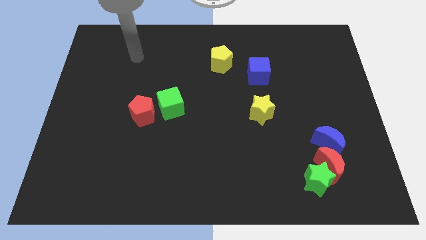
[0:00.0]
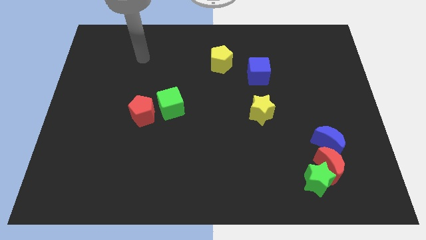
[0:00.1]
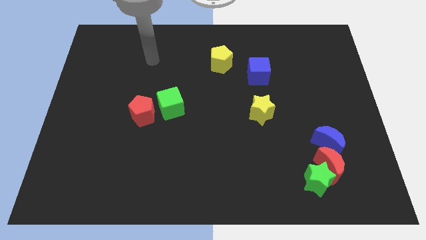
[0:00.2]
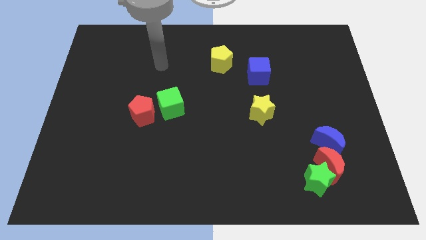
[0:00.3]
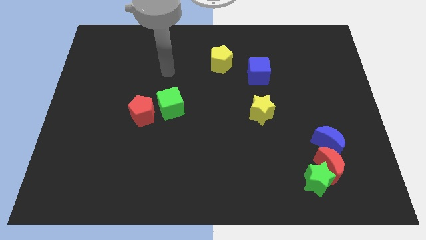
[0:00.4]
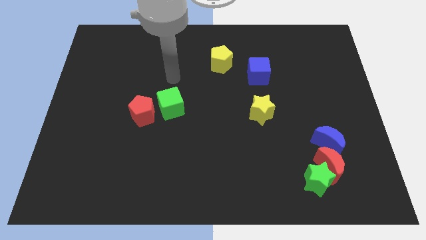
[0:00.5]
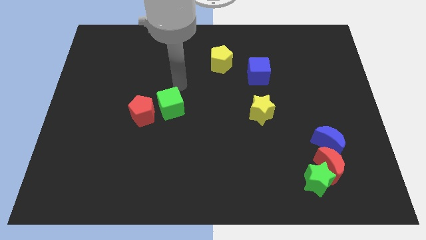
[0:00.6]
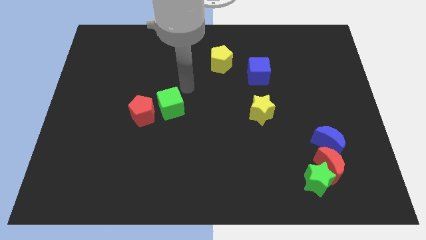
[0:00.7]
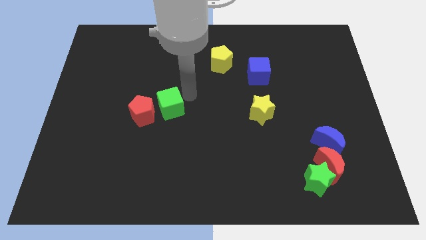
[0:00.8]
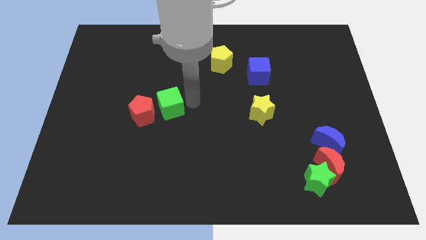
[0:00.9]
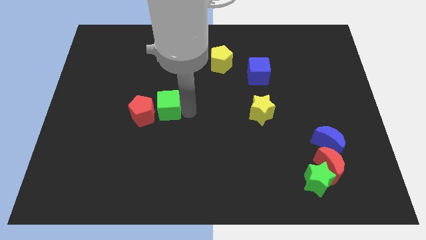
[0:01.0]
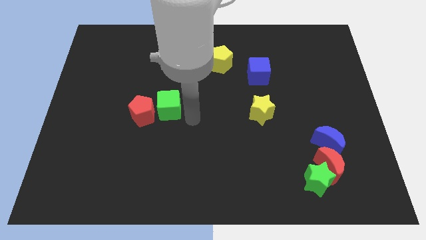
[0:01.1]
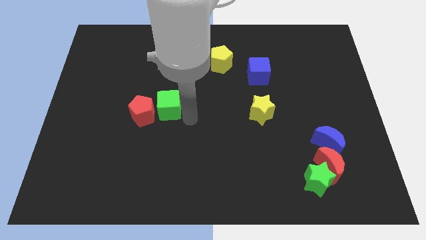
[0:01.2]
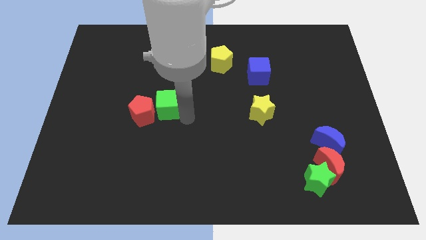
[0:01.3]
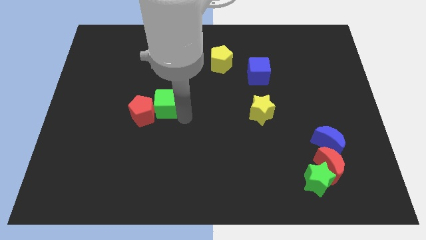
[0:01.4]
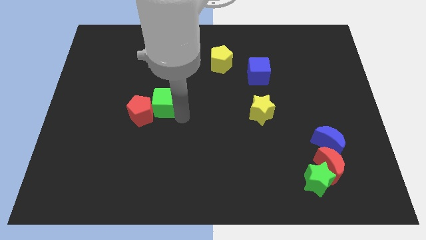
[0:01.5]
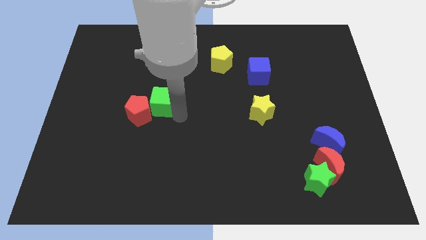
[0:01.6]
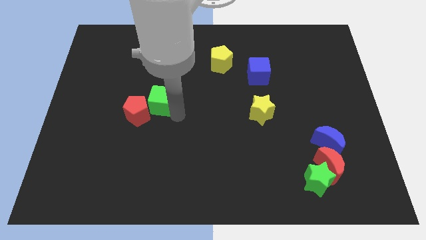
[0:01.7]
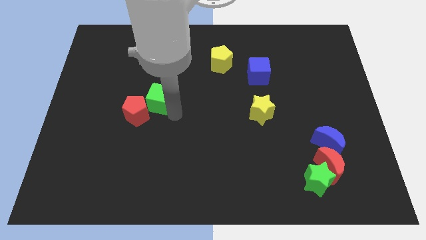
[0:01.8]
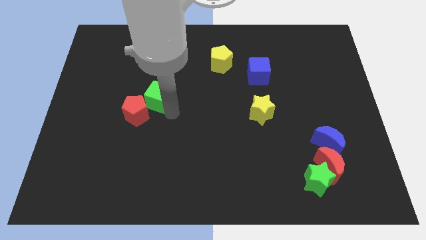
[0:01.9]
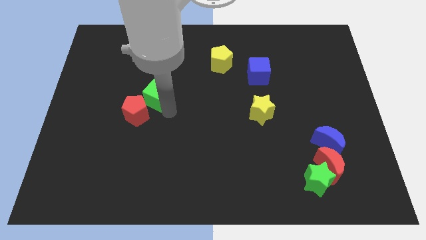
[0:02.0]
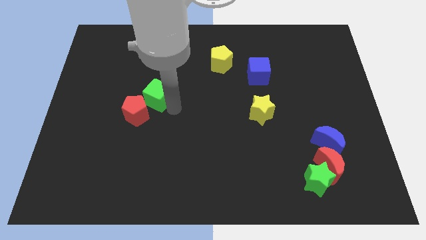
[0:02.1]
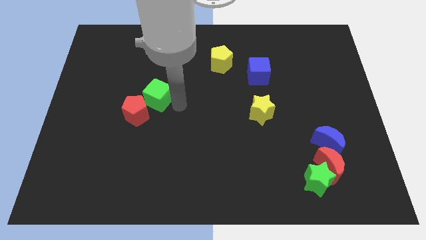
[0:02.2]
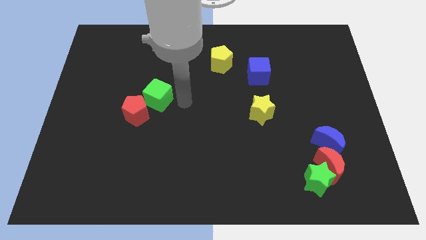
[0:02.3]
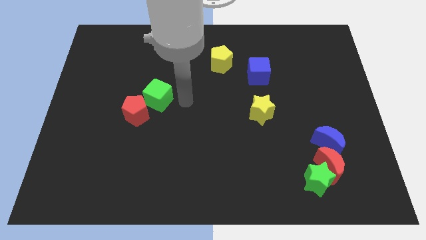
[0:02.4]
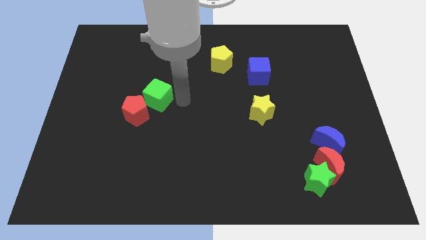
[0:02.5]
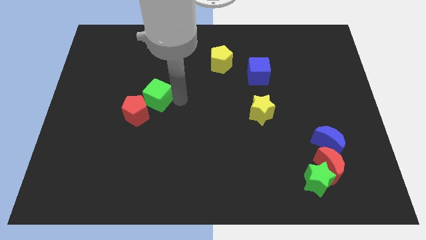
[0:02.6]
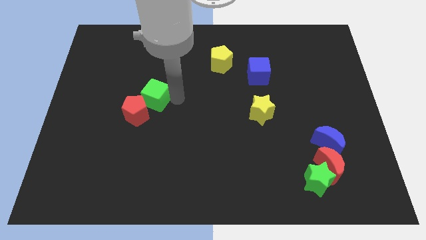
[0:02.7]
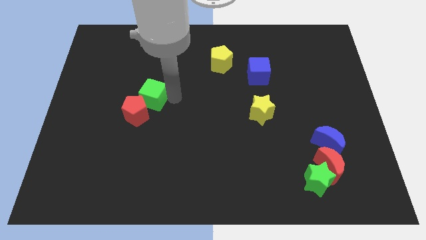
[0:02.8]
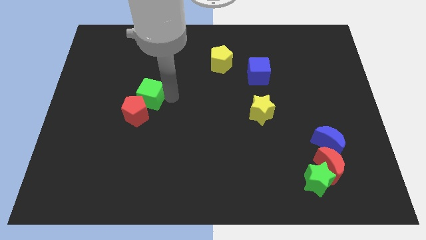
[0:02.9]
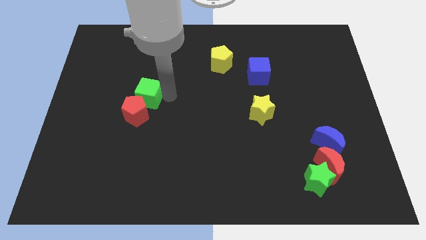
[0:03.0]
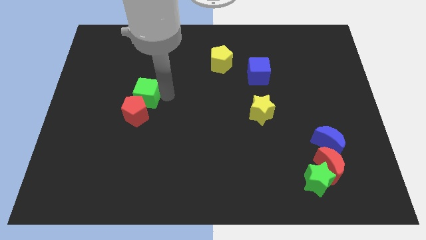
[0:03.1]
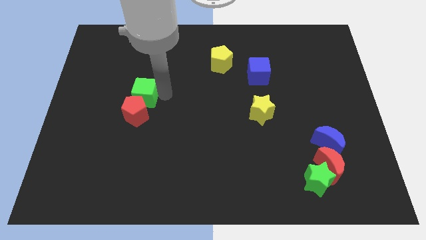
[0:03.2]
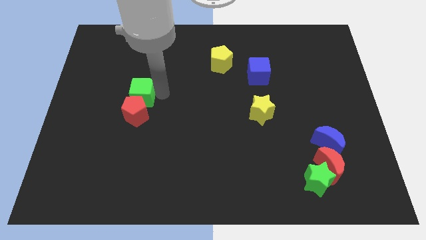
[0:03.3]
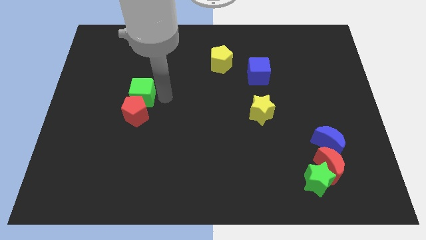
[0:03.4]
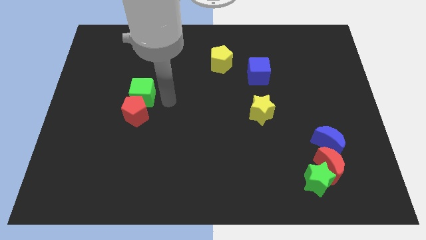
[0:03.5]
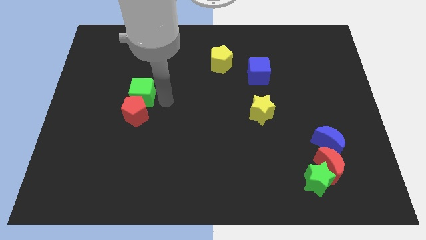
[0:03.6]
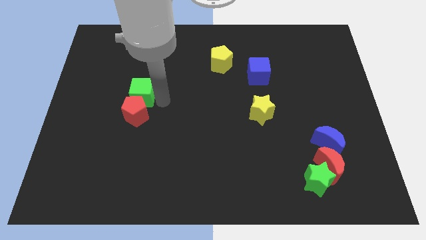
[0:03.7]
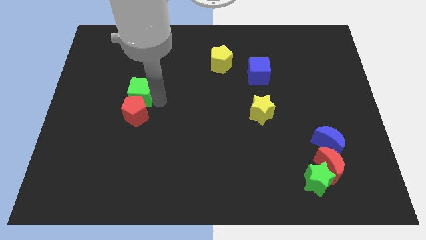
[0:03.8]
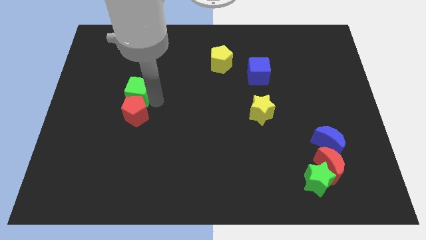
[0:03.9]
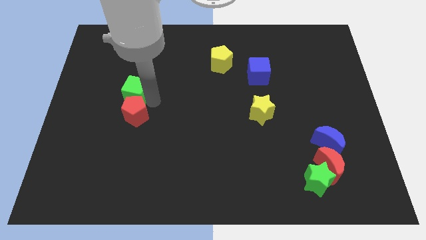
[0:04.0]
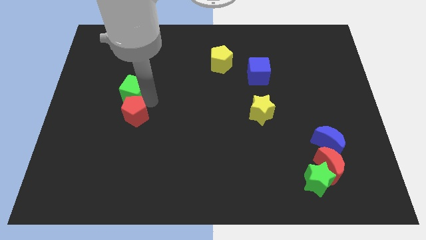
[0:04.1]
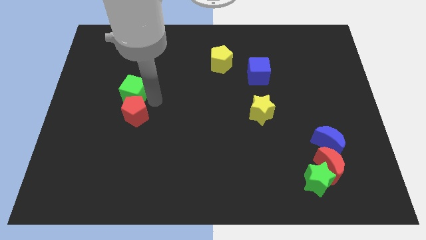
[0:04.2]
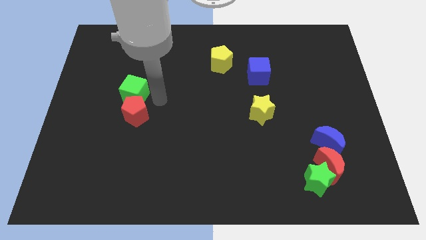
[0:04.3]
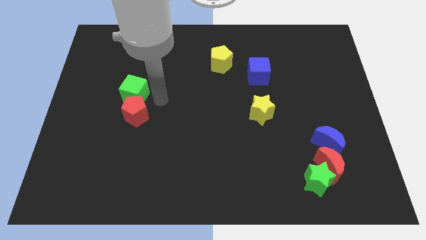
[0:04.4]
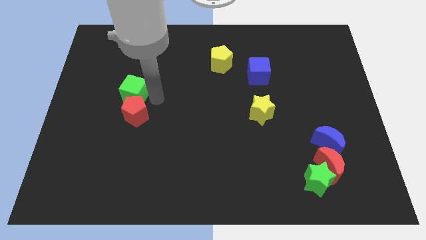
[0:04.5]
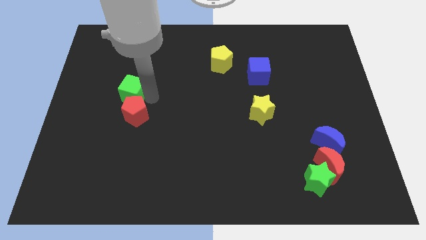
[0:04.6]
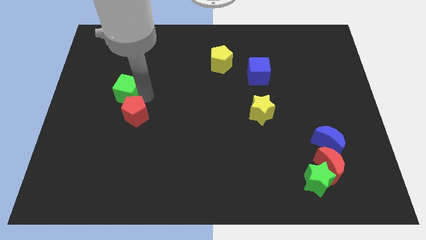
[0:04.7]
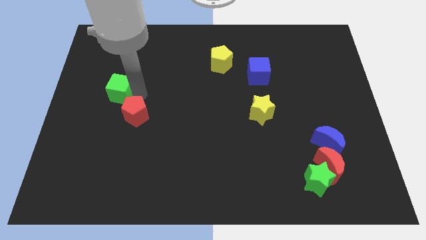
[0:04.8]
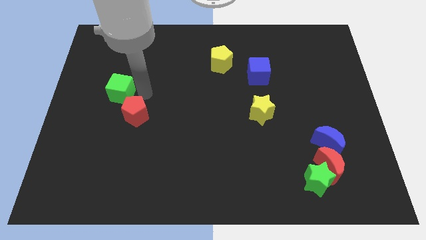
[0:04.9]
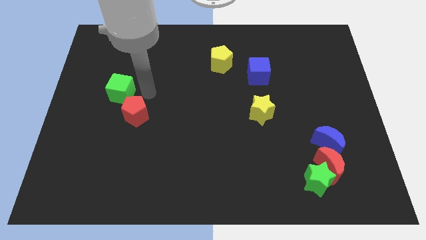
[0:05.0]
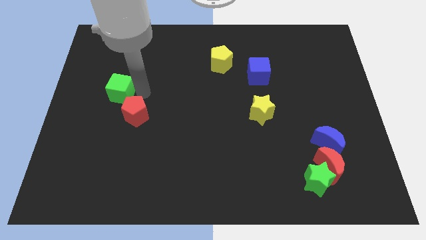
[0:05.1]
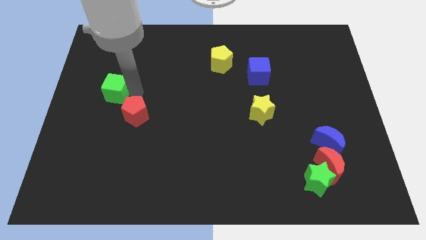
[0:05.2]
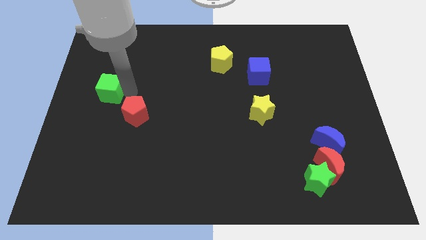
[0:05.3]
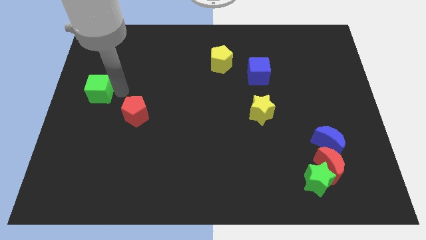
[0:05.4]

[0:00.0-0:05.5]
put the green cube to the center left

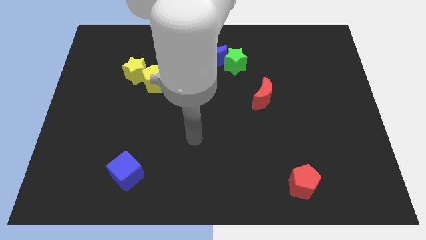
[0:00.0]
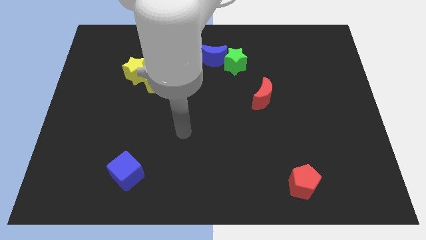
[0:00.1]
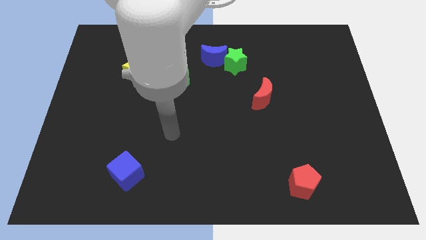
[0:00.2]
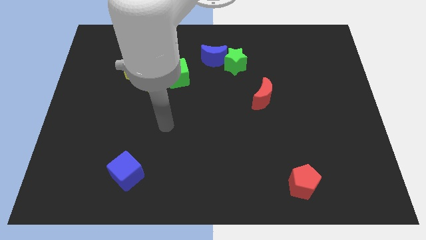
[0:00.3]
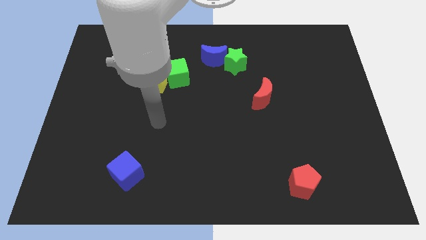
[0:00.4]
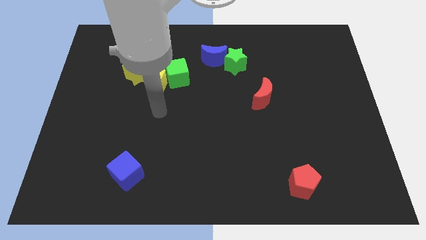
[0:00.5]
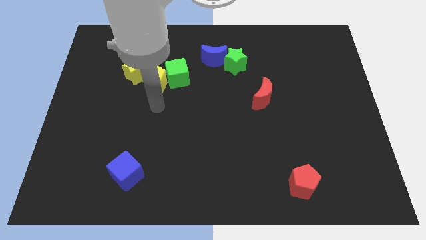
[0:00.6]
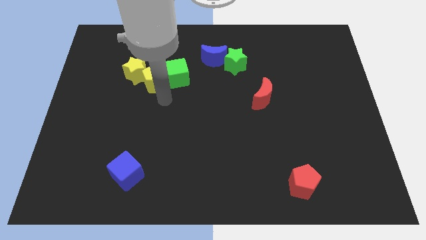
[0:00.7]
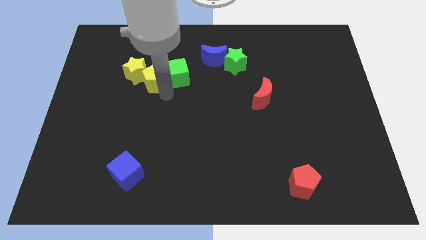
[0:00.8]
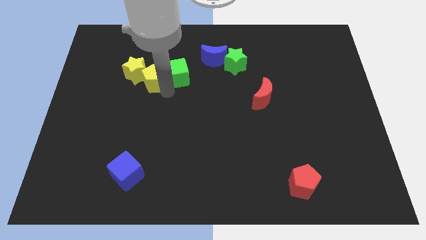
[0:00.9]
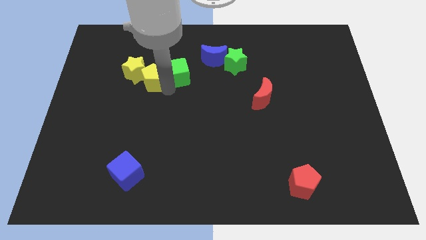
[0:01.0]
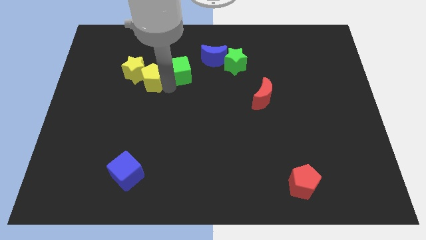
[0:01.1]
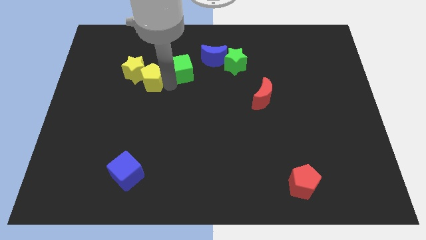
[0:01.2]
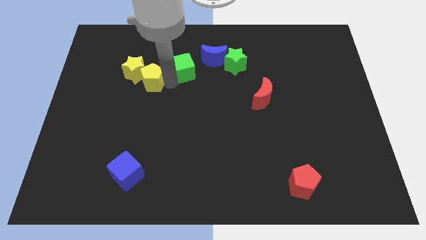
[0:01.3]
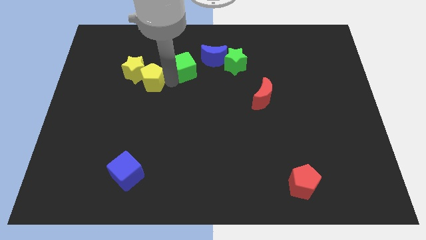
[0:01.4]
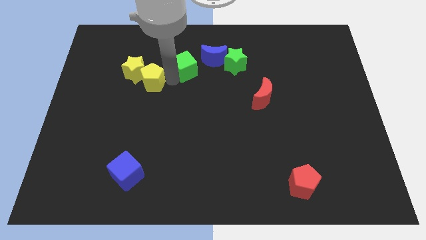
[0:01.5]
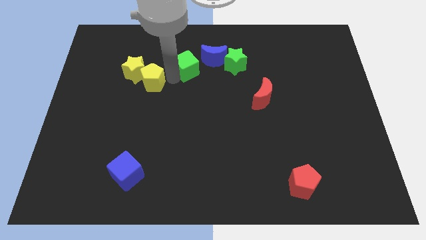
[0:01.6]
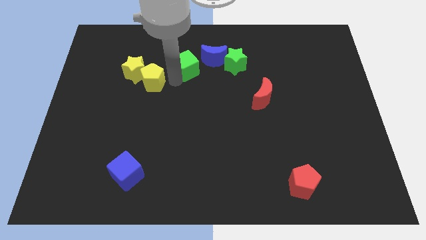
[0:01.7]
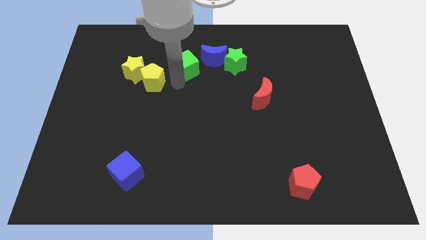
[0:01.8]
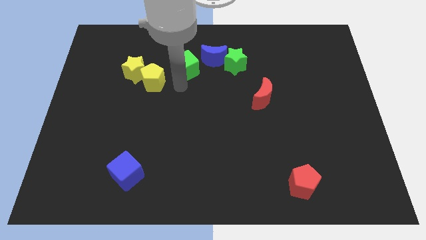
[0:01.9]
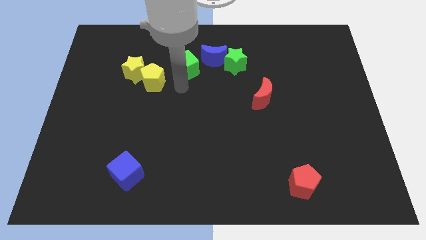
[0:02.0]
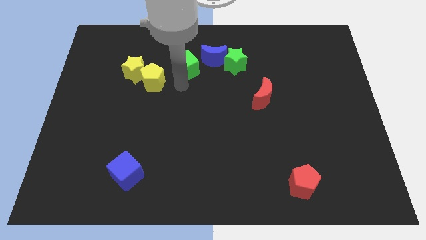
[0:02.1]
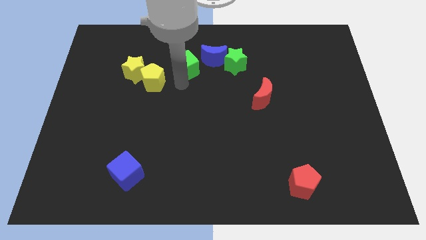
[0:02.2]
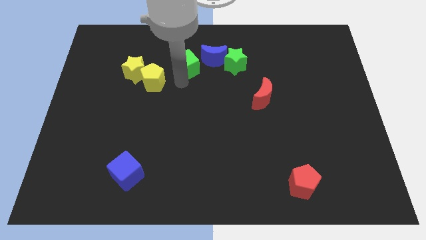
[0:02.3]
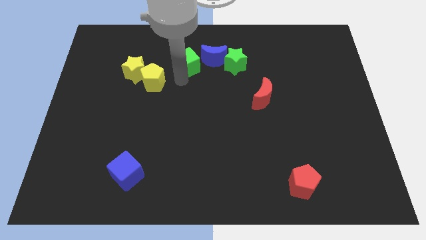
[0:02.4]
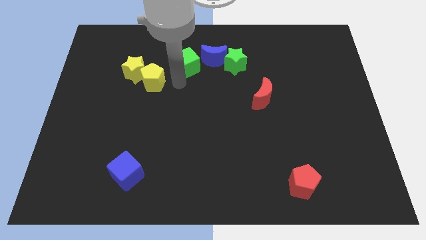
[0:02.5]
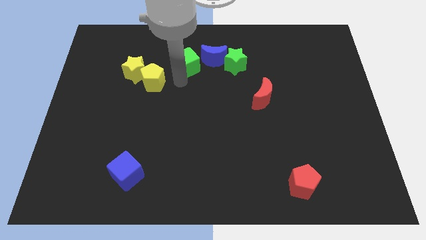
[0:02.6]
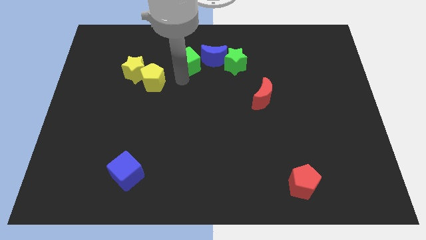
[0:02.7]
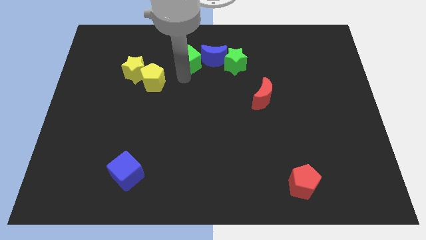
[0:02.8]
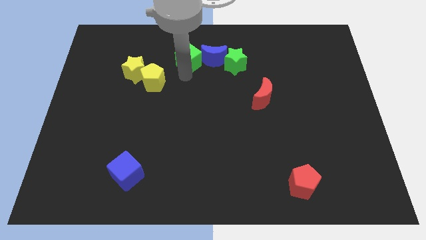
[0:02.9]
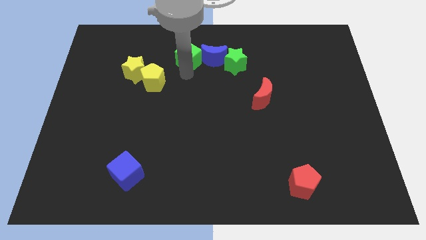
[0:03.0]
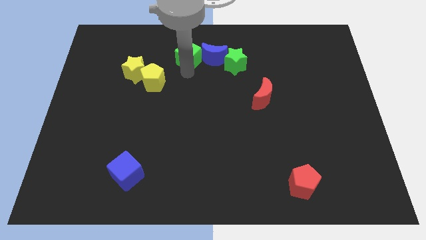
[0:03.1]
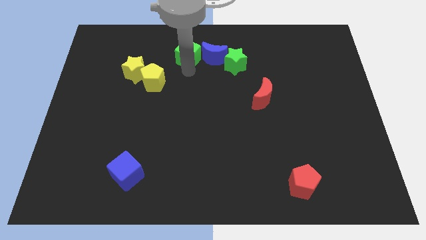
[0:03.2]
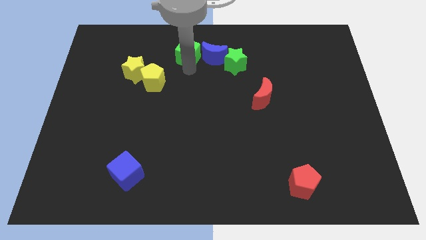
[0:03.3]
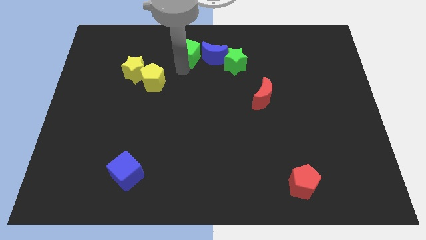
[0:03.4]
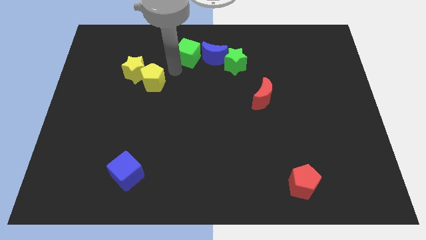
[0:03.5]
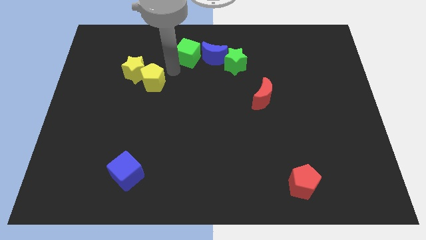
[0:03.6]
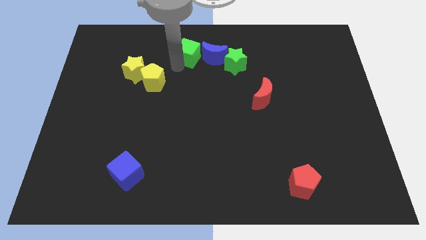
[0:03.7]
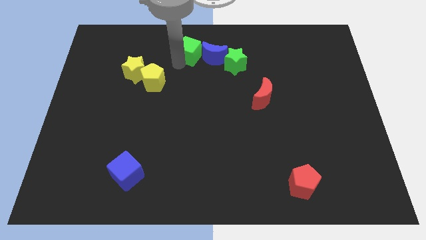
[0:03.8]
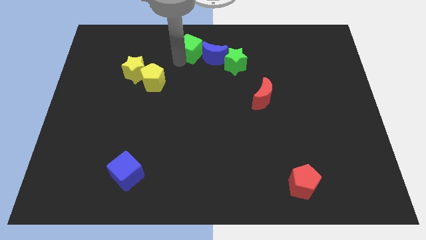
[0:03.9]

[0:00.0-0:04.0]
put the green cube to the top side
